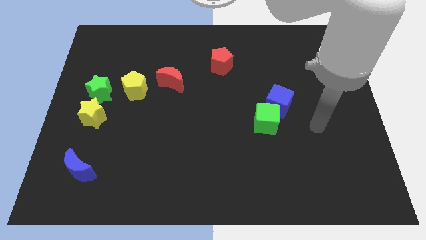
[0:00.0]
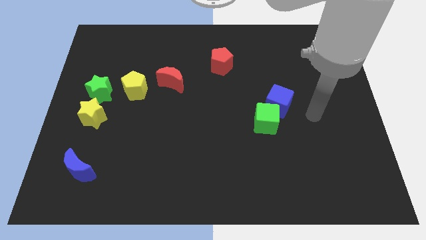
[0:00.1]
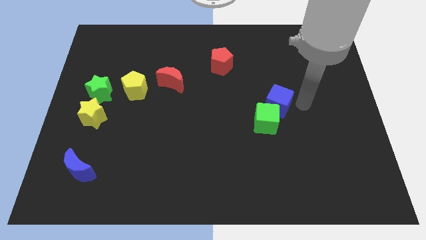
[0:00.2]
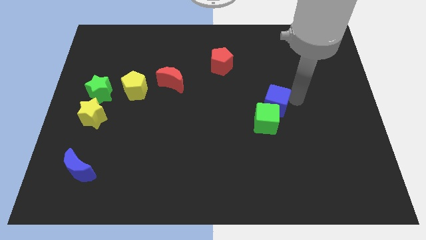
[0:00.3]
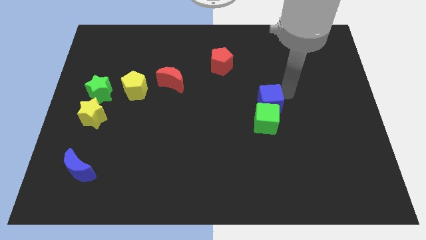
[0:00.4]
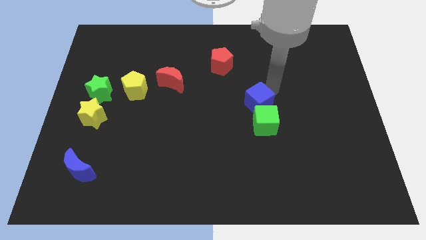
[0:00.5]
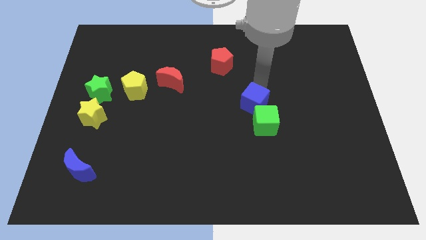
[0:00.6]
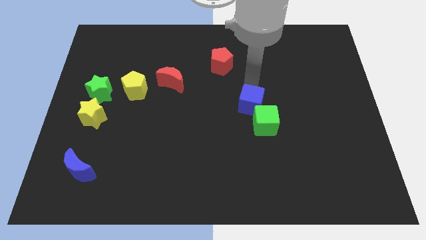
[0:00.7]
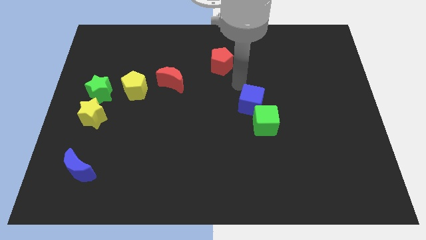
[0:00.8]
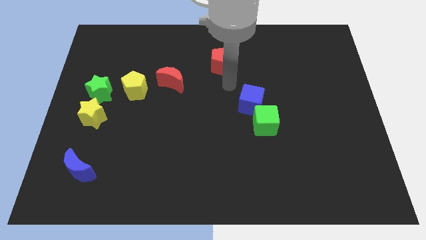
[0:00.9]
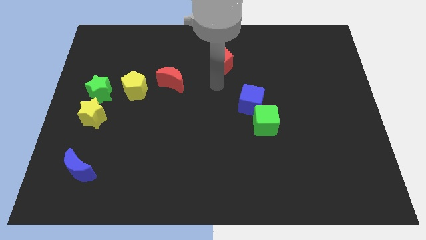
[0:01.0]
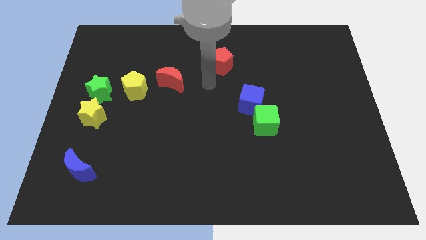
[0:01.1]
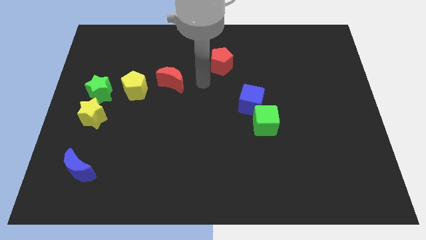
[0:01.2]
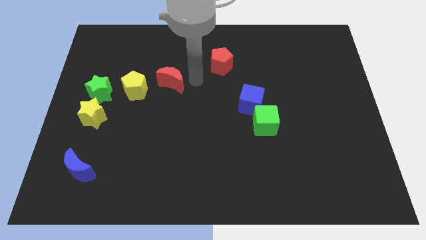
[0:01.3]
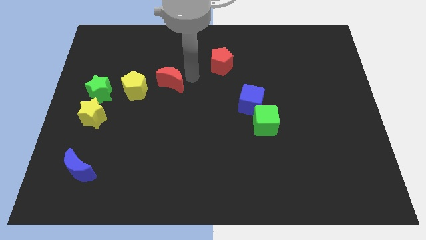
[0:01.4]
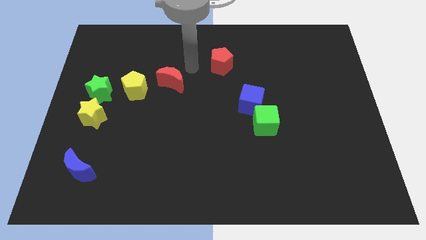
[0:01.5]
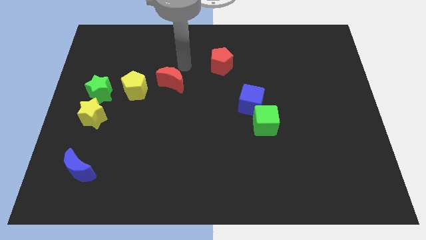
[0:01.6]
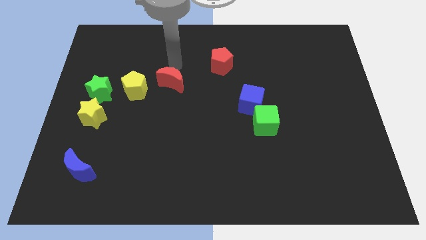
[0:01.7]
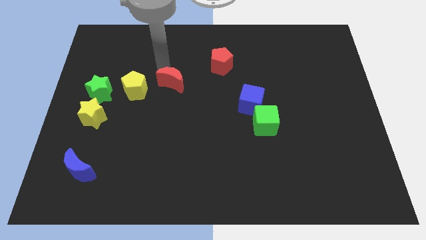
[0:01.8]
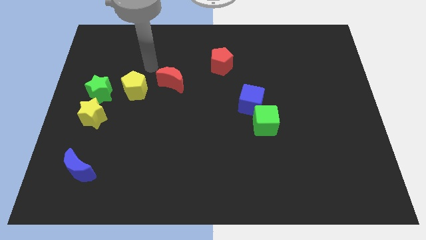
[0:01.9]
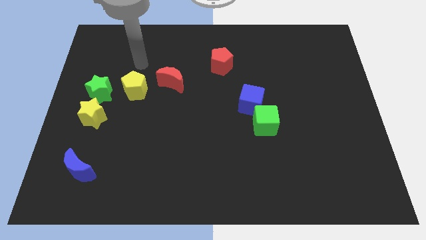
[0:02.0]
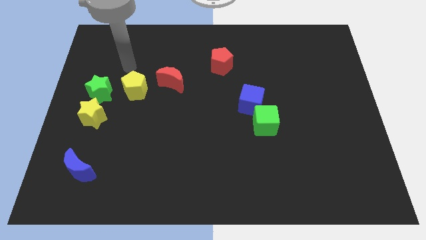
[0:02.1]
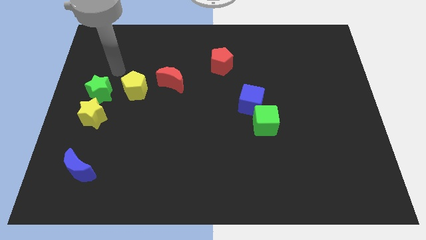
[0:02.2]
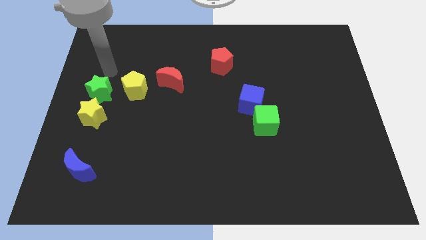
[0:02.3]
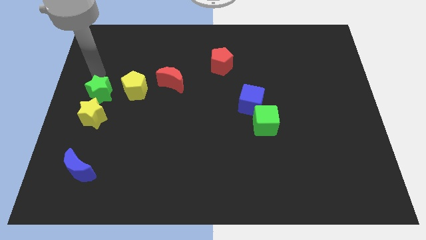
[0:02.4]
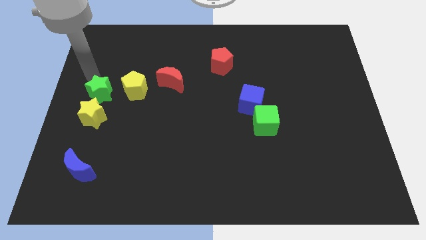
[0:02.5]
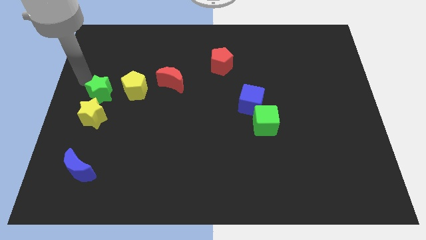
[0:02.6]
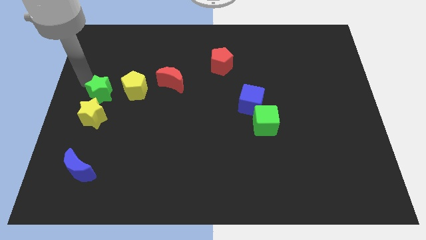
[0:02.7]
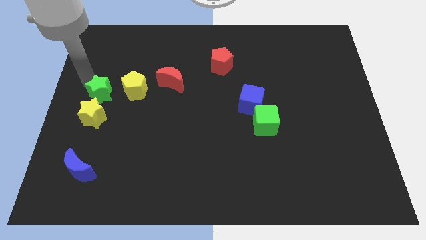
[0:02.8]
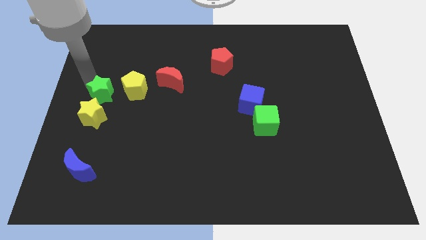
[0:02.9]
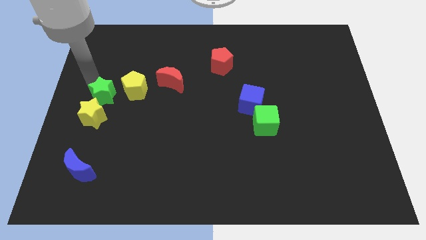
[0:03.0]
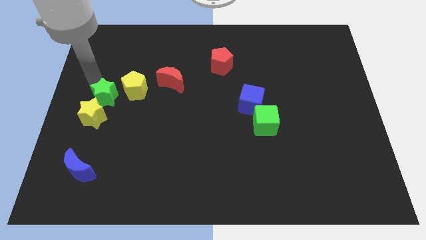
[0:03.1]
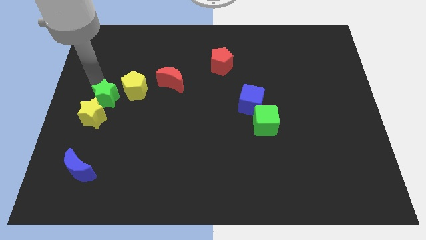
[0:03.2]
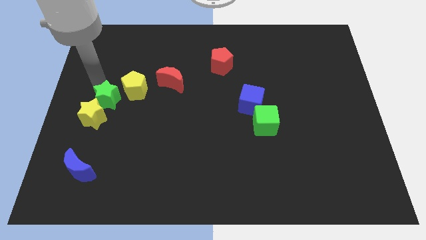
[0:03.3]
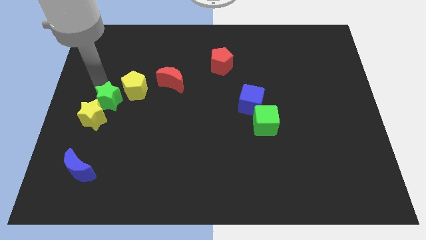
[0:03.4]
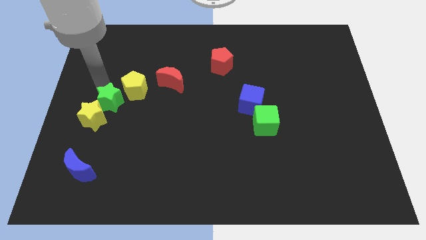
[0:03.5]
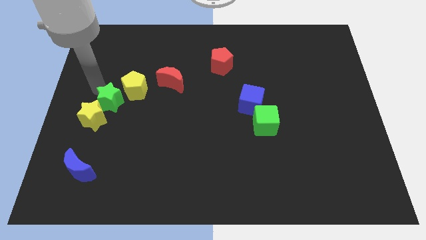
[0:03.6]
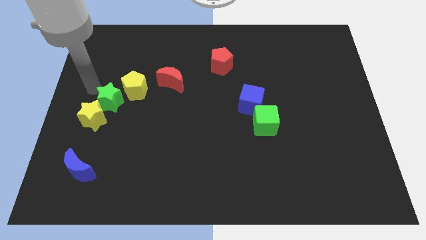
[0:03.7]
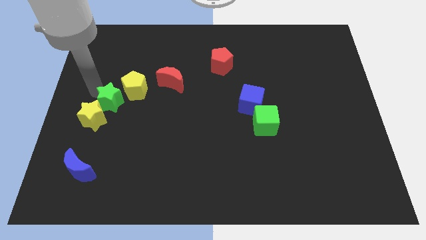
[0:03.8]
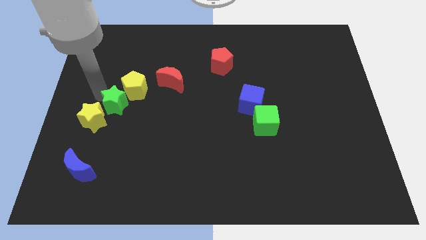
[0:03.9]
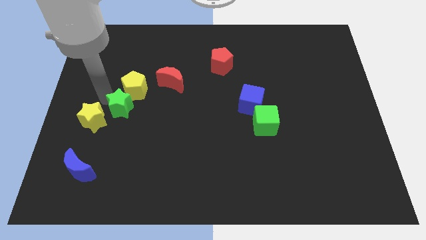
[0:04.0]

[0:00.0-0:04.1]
push the green star downwards and then right a bit

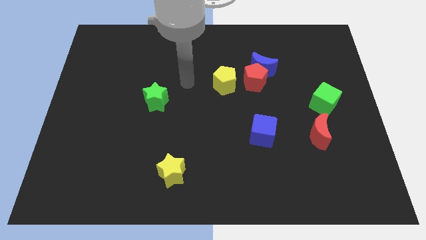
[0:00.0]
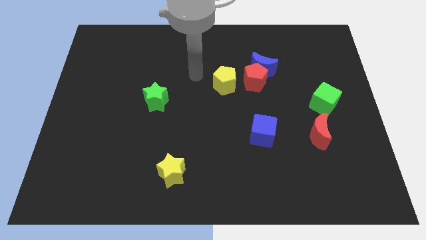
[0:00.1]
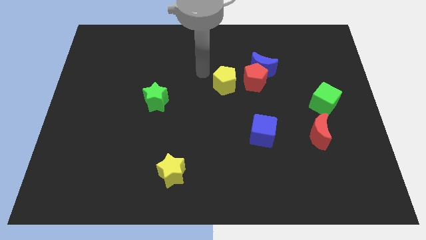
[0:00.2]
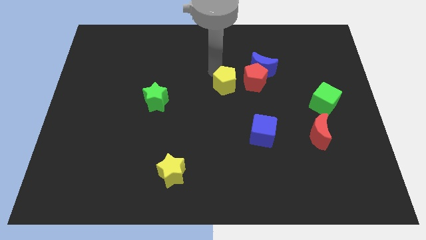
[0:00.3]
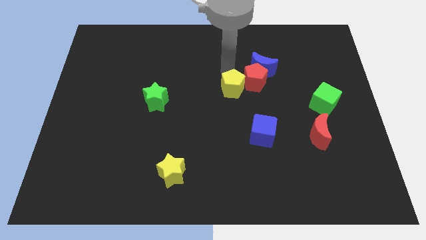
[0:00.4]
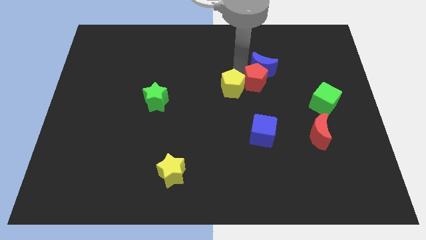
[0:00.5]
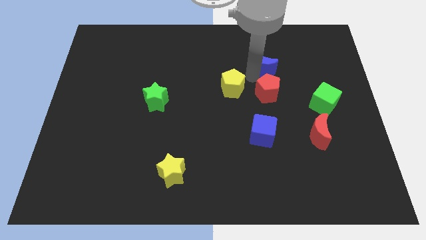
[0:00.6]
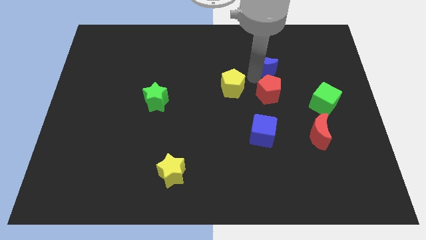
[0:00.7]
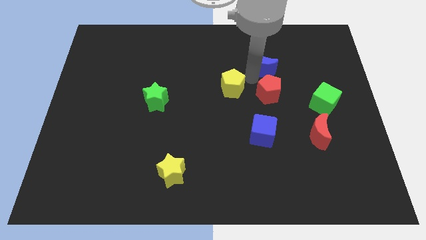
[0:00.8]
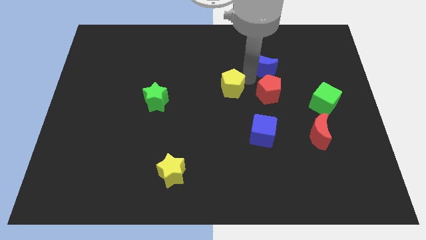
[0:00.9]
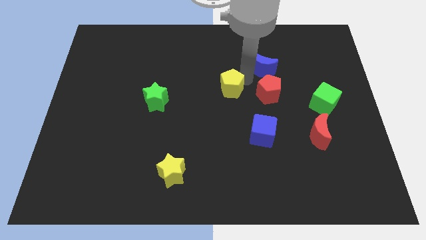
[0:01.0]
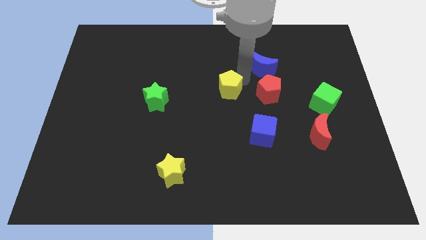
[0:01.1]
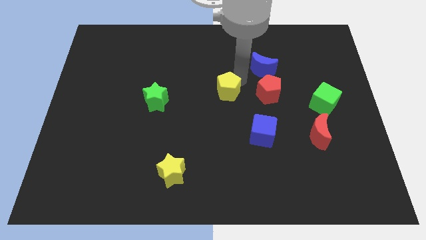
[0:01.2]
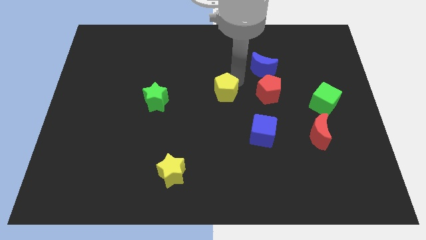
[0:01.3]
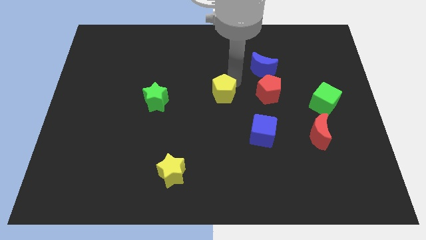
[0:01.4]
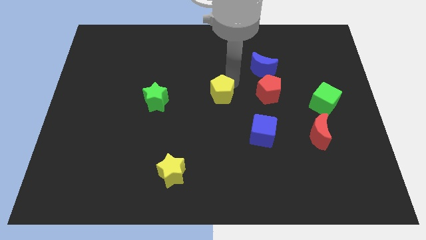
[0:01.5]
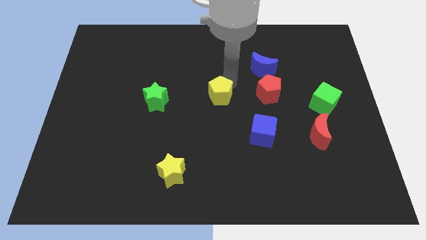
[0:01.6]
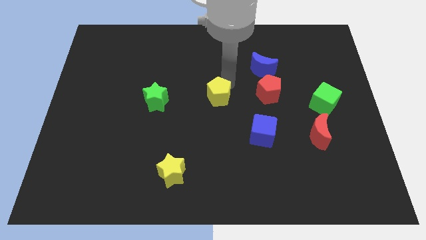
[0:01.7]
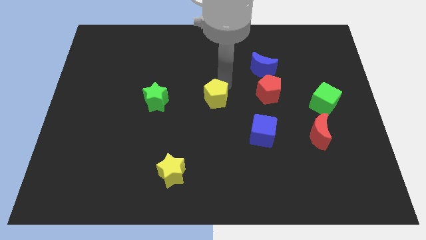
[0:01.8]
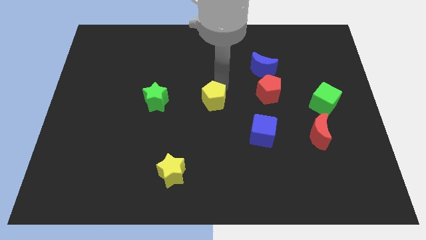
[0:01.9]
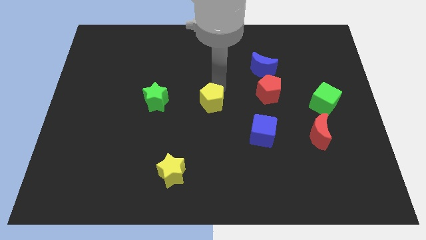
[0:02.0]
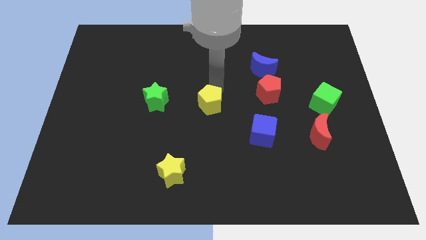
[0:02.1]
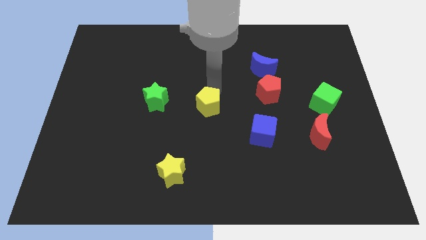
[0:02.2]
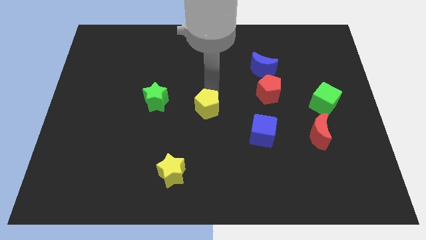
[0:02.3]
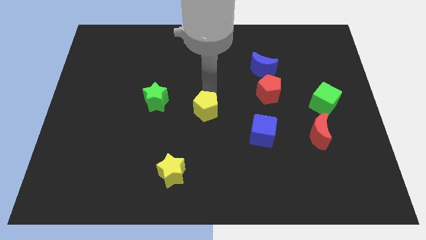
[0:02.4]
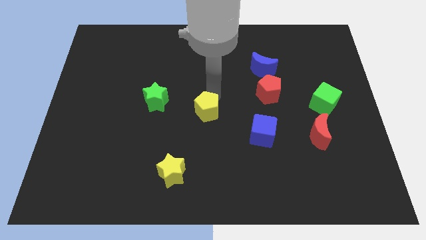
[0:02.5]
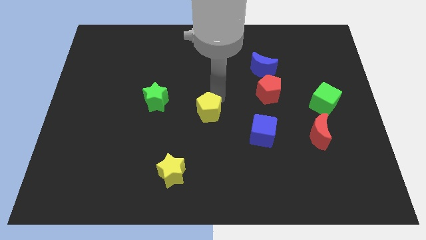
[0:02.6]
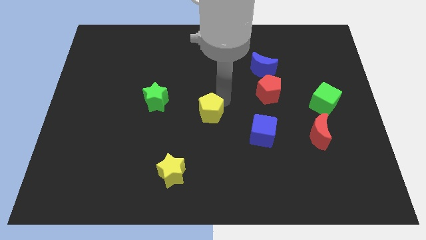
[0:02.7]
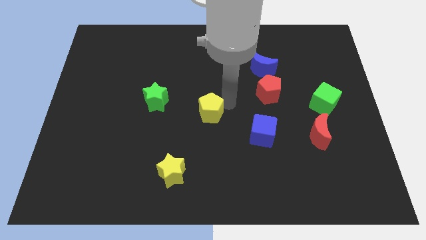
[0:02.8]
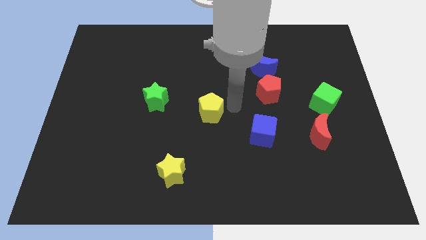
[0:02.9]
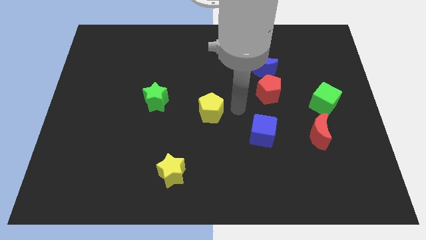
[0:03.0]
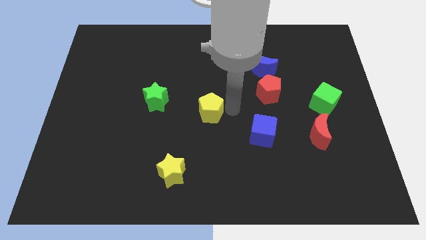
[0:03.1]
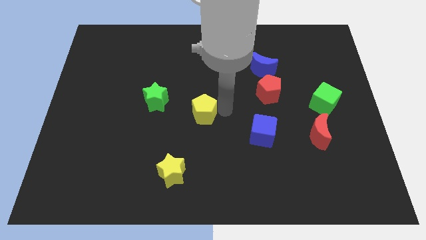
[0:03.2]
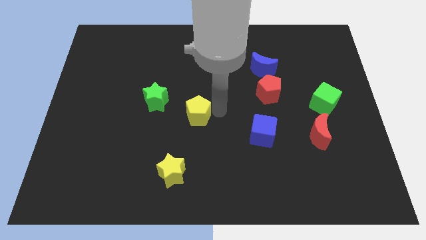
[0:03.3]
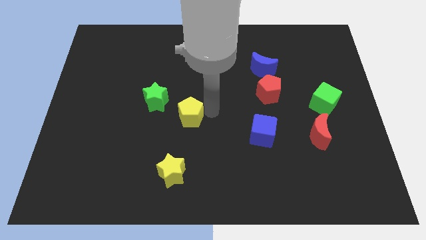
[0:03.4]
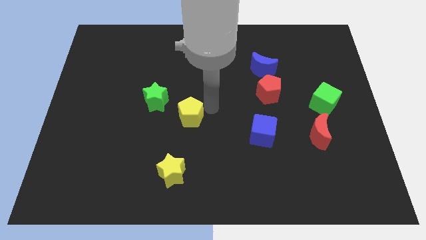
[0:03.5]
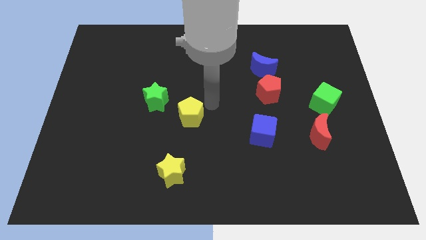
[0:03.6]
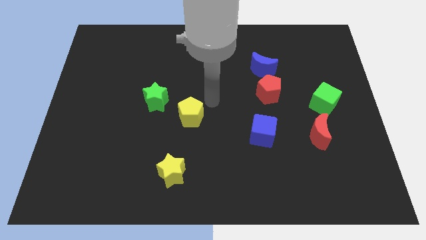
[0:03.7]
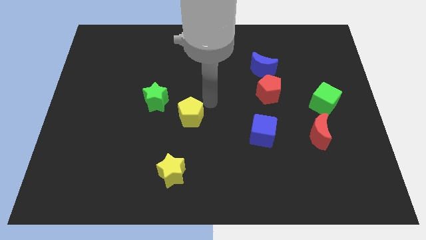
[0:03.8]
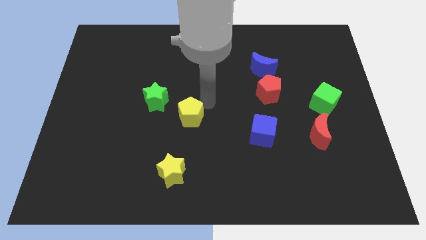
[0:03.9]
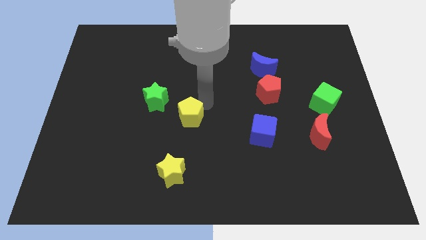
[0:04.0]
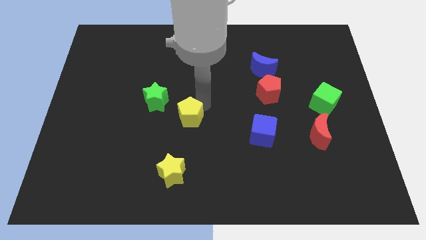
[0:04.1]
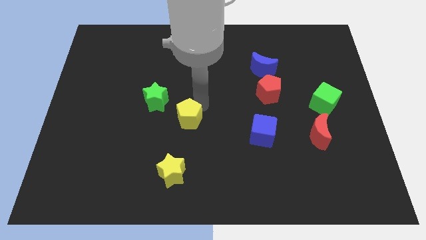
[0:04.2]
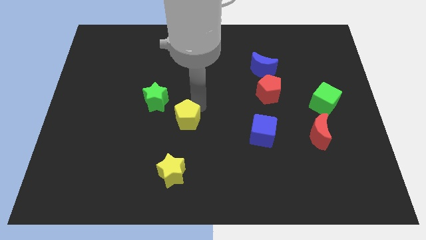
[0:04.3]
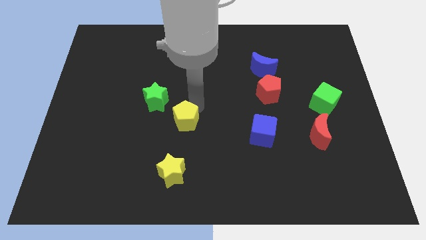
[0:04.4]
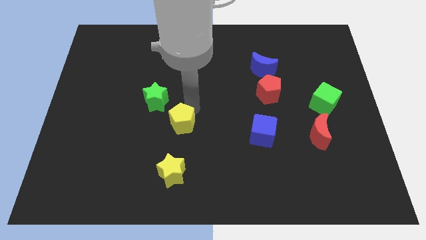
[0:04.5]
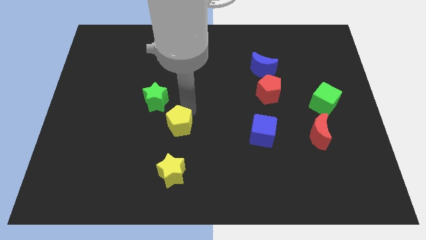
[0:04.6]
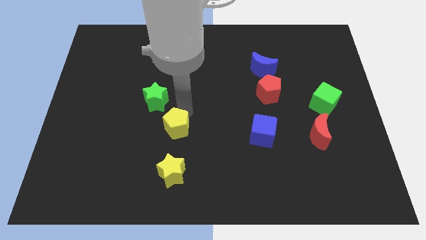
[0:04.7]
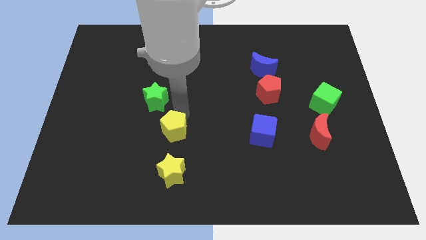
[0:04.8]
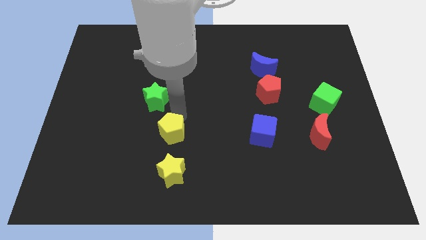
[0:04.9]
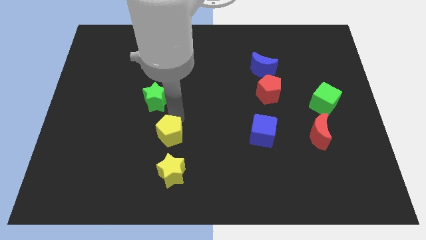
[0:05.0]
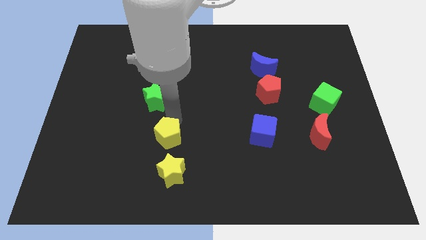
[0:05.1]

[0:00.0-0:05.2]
slide the yellow pentagon diagonally down and left
